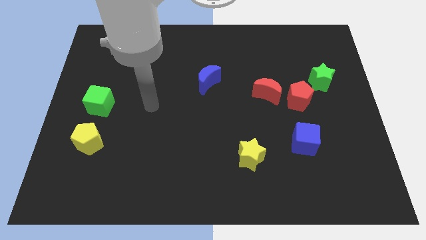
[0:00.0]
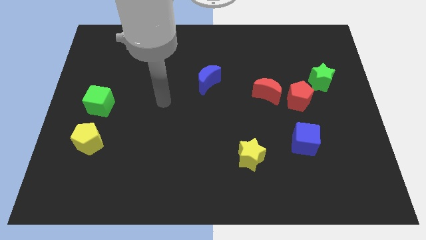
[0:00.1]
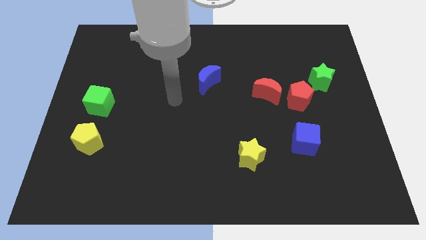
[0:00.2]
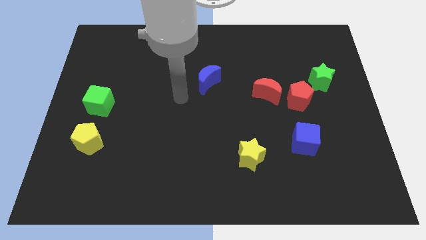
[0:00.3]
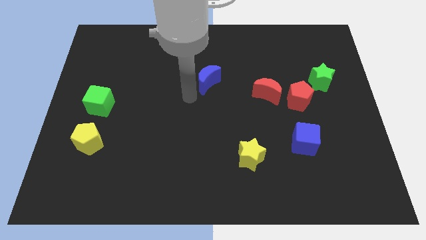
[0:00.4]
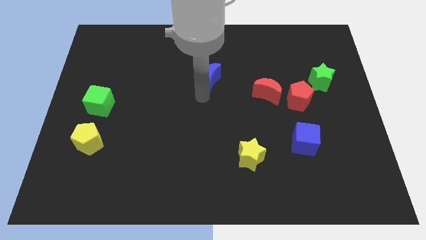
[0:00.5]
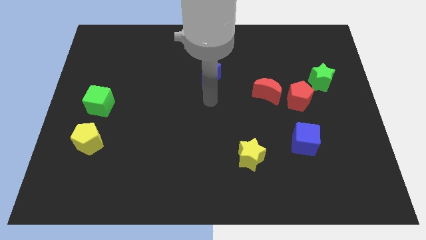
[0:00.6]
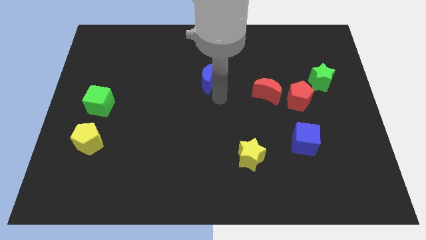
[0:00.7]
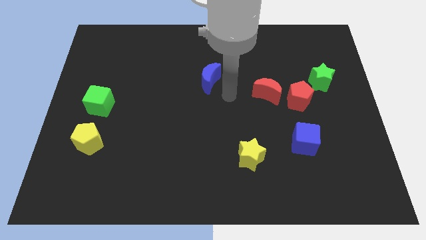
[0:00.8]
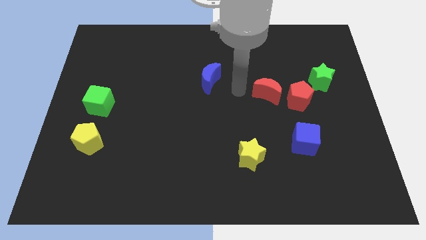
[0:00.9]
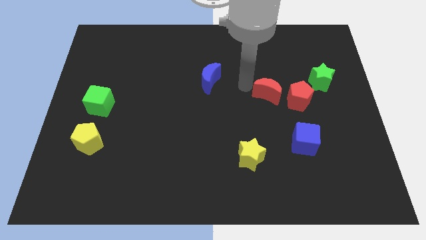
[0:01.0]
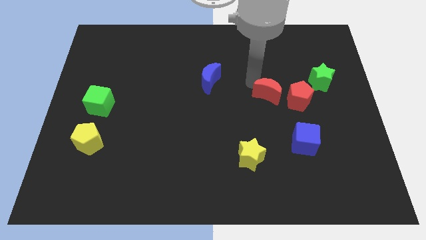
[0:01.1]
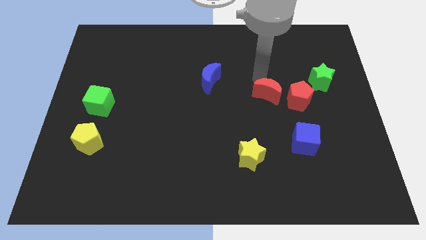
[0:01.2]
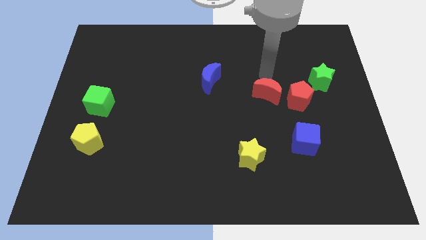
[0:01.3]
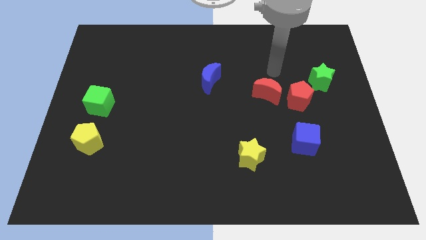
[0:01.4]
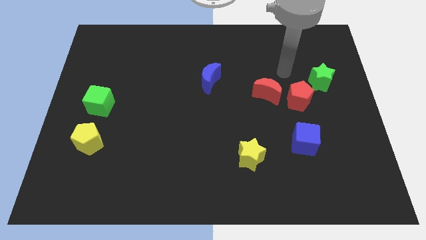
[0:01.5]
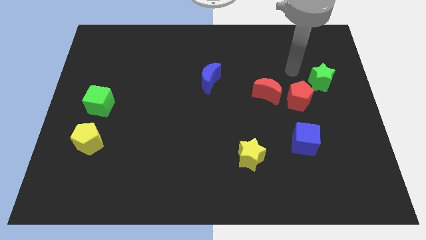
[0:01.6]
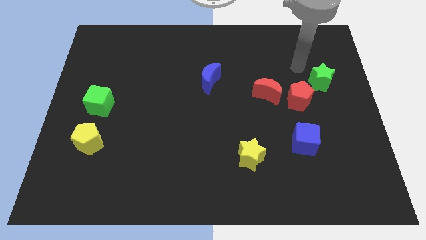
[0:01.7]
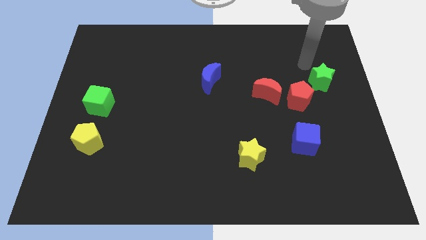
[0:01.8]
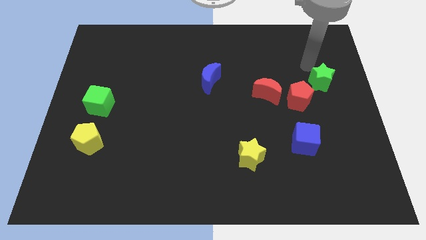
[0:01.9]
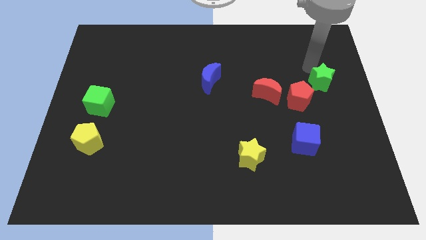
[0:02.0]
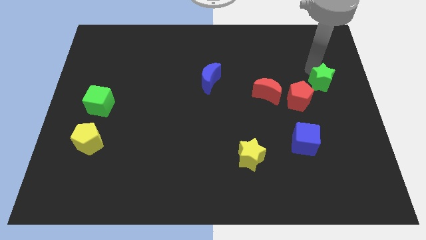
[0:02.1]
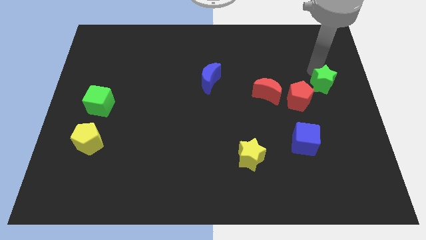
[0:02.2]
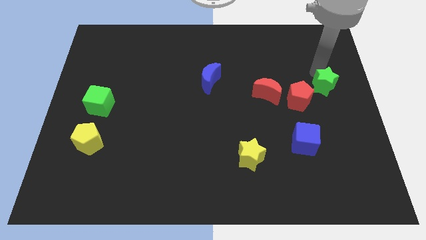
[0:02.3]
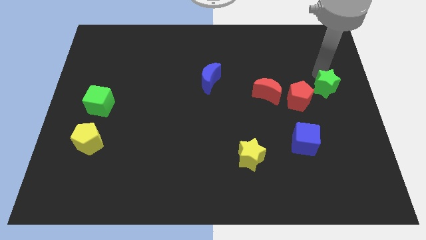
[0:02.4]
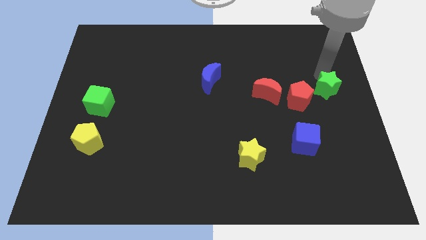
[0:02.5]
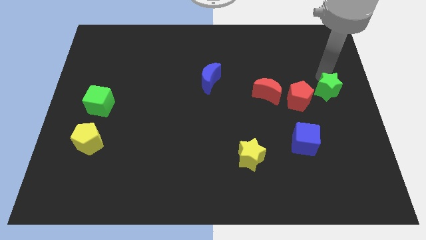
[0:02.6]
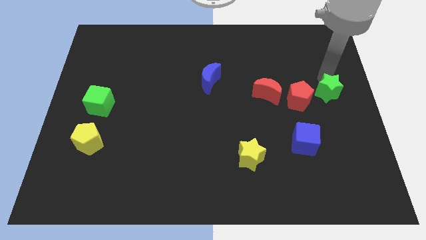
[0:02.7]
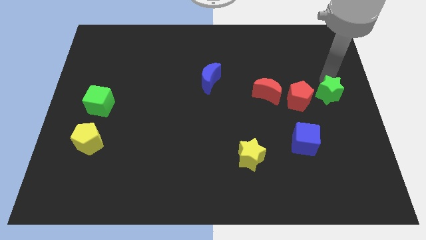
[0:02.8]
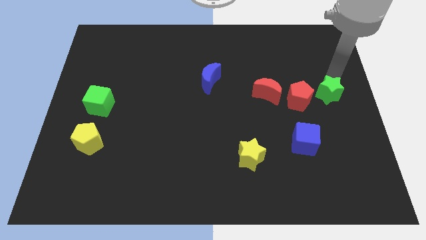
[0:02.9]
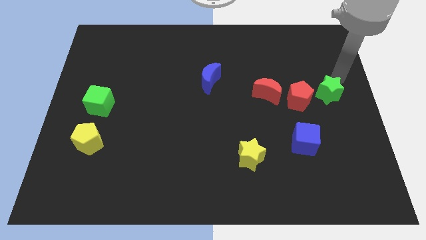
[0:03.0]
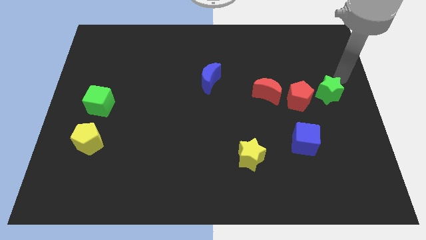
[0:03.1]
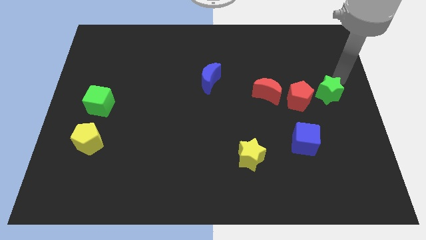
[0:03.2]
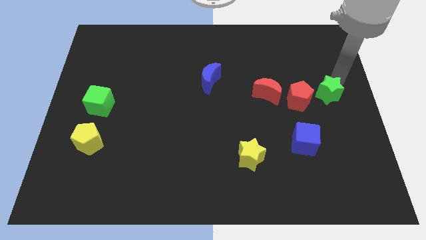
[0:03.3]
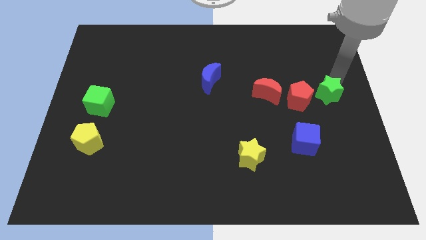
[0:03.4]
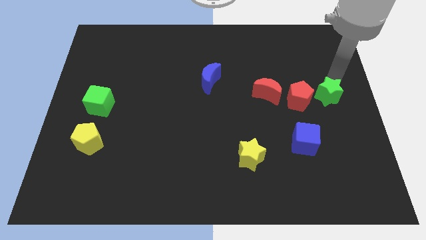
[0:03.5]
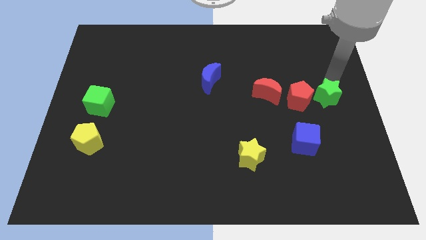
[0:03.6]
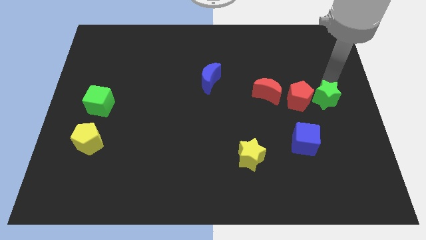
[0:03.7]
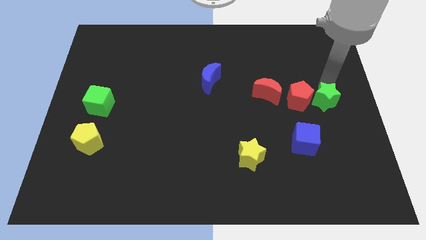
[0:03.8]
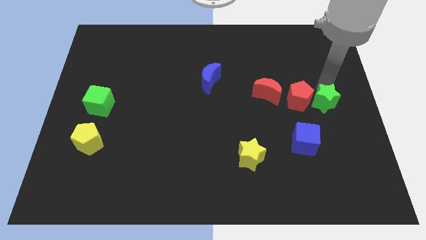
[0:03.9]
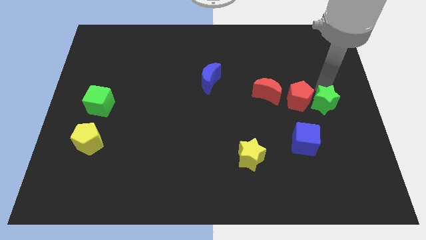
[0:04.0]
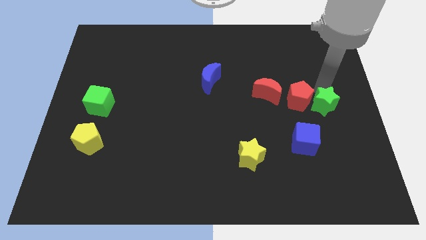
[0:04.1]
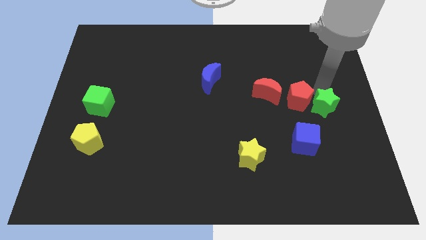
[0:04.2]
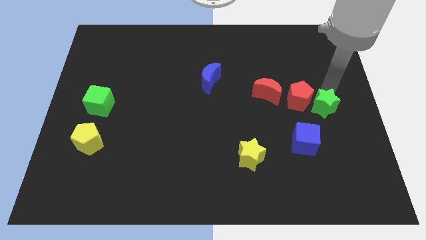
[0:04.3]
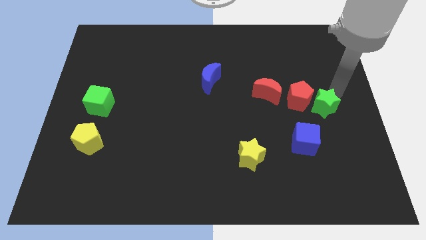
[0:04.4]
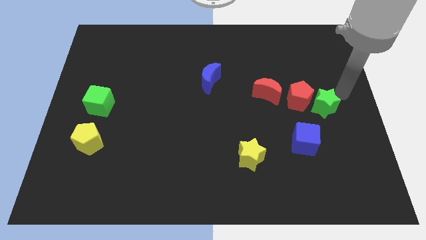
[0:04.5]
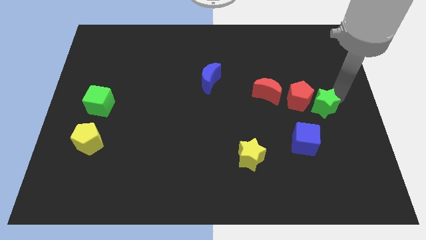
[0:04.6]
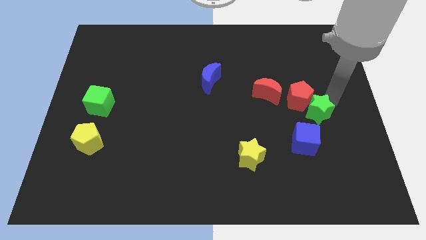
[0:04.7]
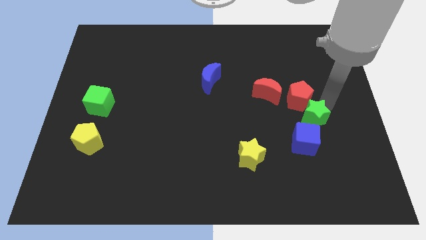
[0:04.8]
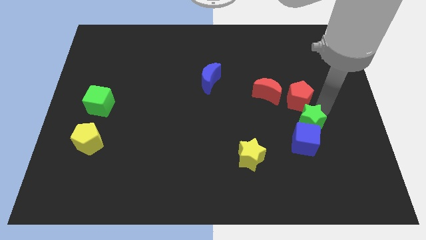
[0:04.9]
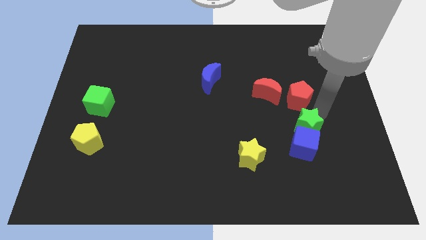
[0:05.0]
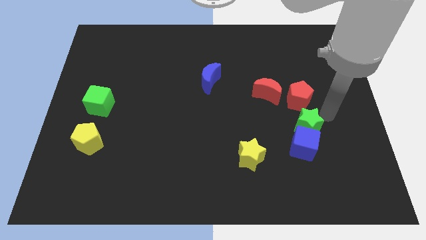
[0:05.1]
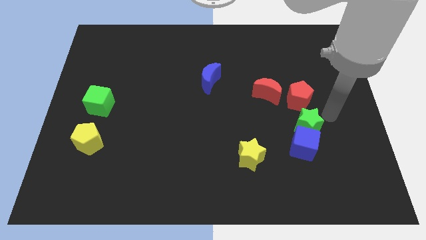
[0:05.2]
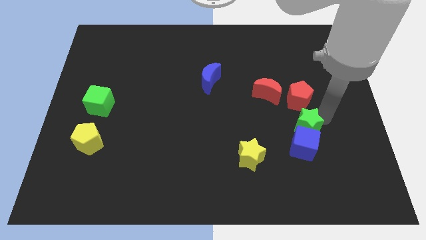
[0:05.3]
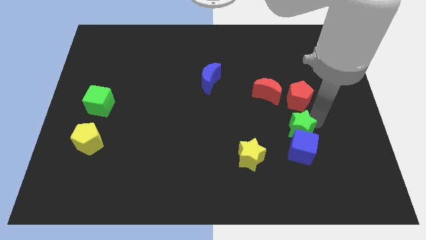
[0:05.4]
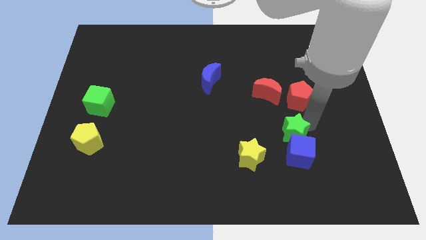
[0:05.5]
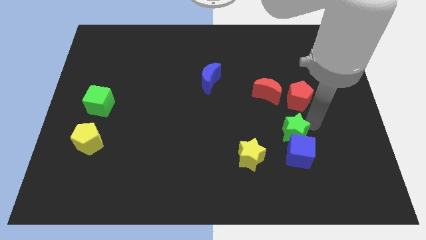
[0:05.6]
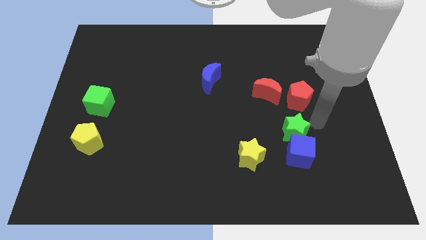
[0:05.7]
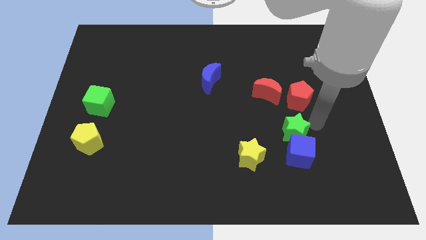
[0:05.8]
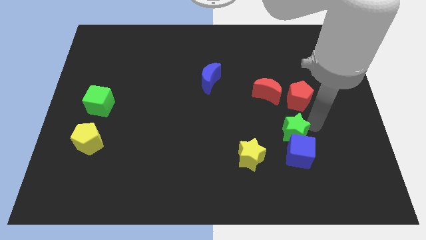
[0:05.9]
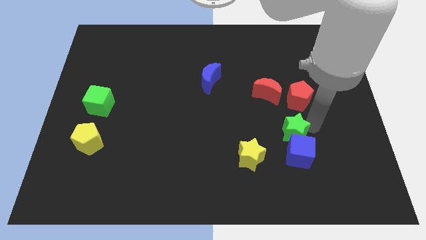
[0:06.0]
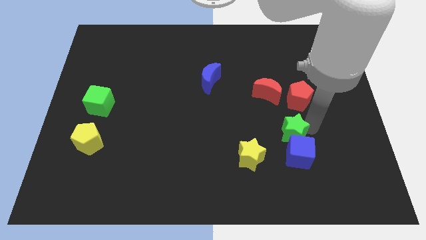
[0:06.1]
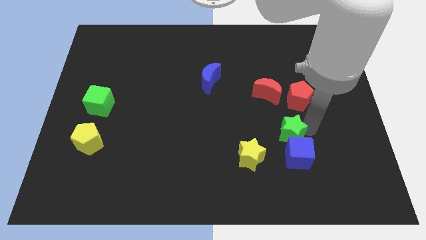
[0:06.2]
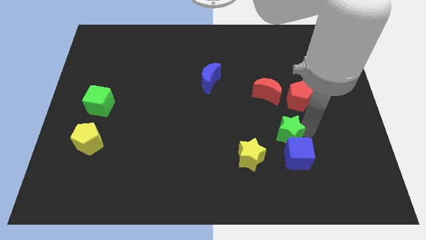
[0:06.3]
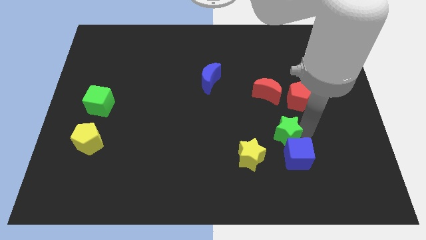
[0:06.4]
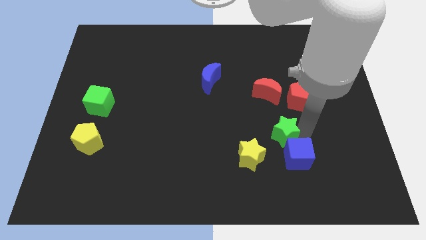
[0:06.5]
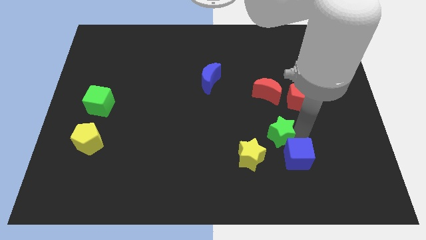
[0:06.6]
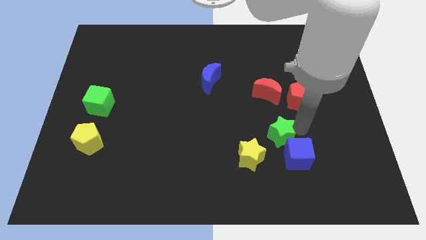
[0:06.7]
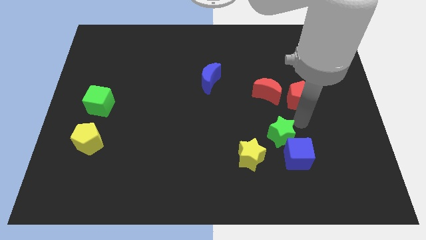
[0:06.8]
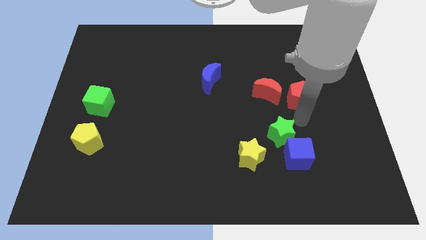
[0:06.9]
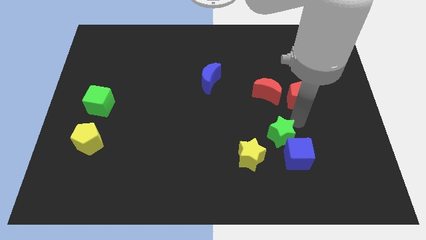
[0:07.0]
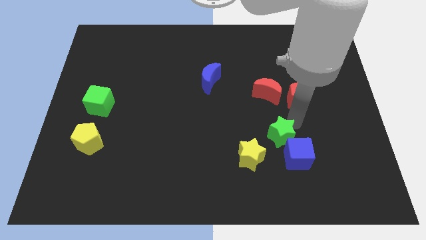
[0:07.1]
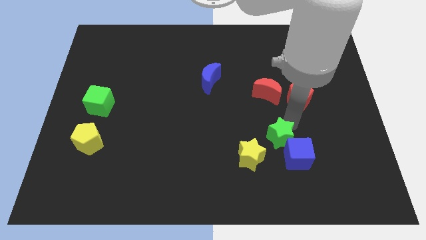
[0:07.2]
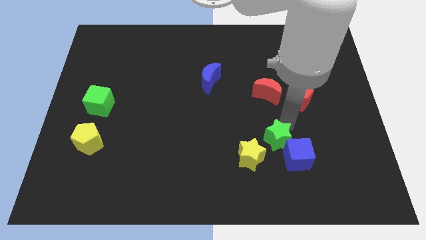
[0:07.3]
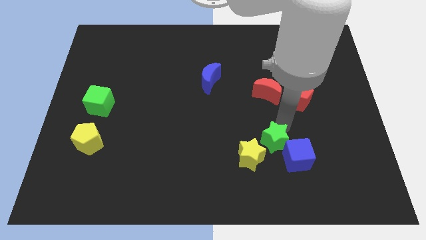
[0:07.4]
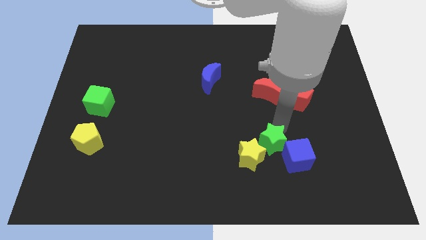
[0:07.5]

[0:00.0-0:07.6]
push the green star close to the yellow star
